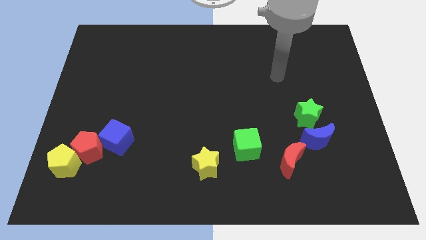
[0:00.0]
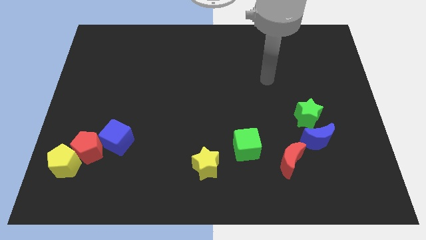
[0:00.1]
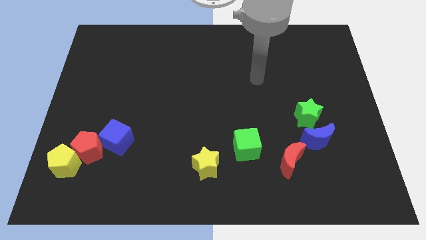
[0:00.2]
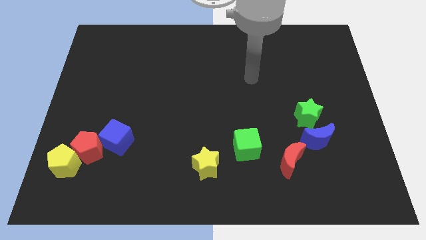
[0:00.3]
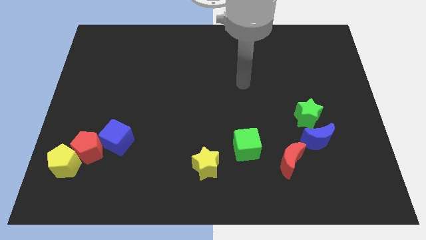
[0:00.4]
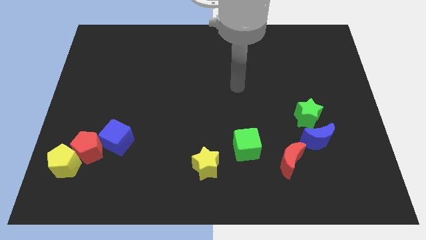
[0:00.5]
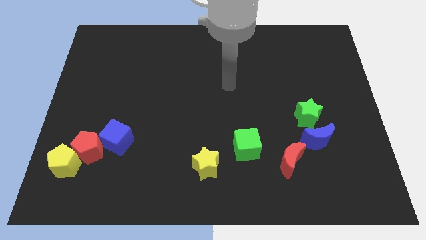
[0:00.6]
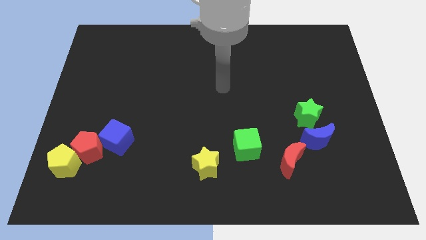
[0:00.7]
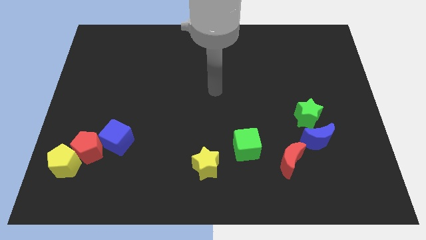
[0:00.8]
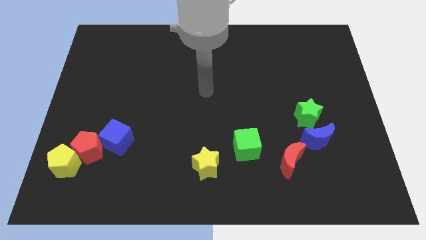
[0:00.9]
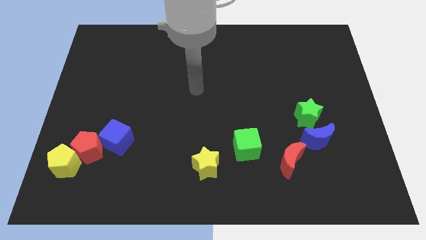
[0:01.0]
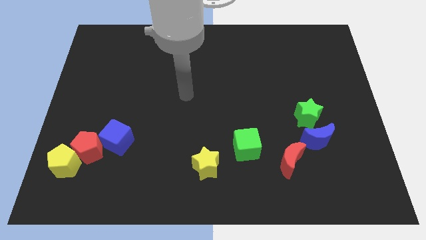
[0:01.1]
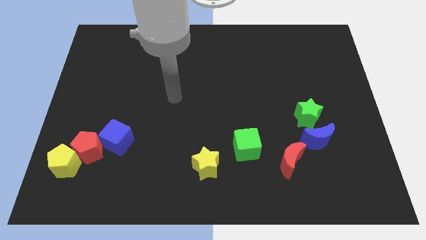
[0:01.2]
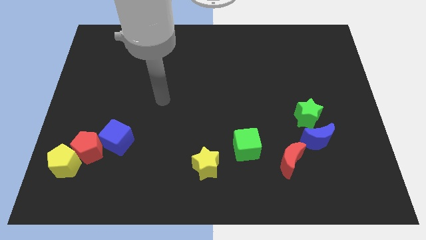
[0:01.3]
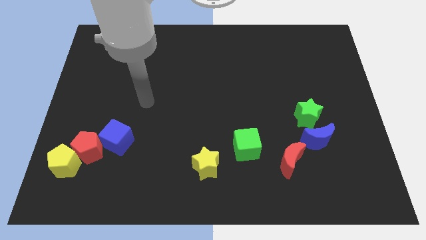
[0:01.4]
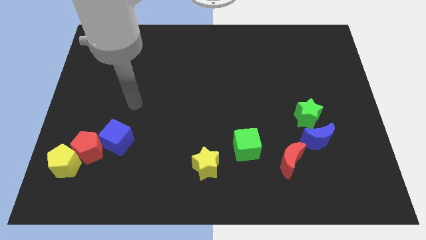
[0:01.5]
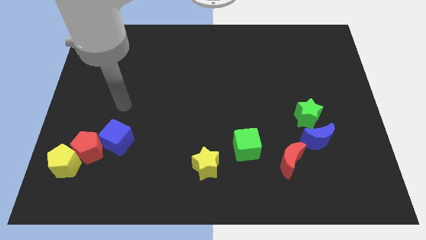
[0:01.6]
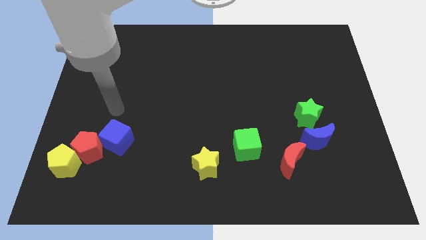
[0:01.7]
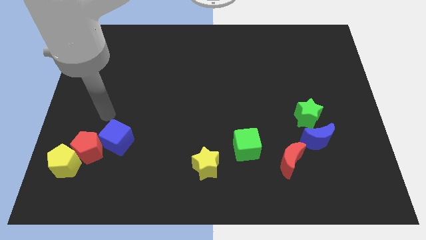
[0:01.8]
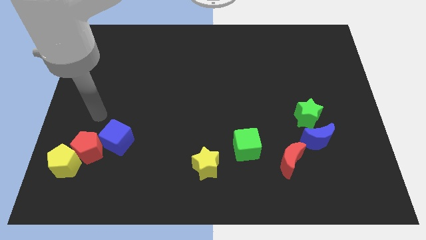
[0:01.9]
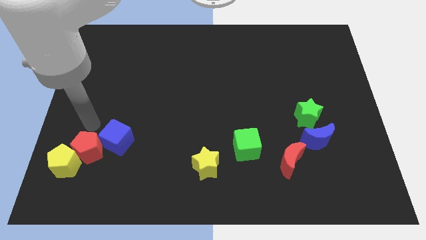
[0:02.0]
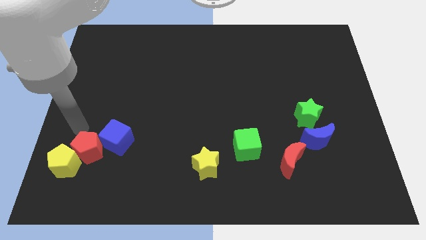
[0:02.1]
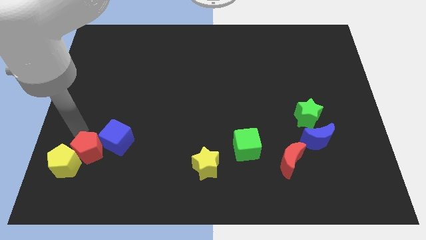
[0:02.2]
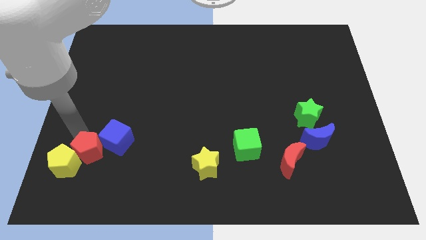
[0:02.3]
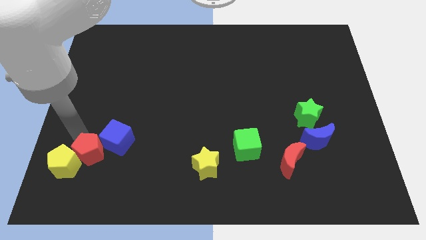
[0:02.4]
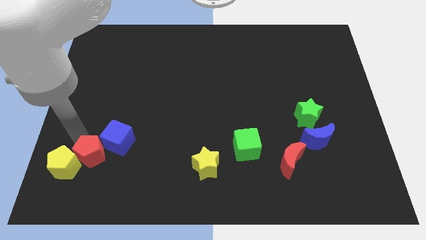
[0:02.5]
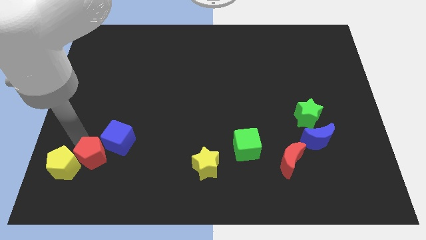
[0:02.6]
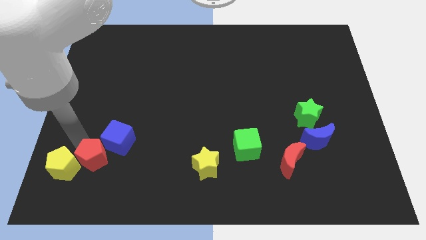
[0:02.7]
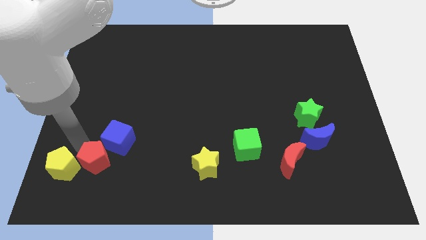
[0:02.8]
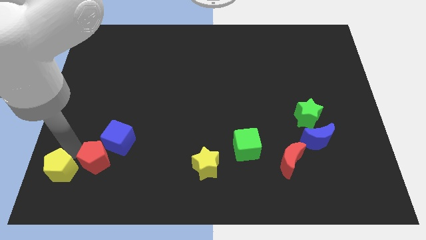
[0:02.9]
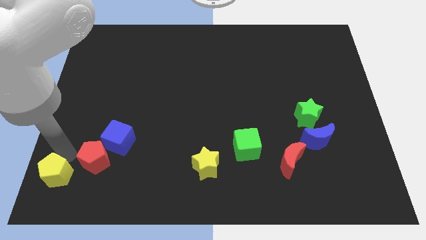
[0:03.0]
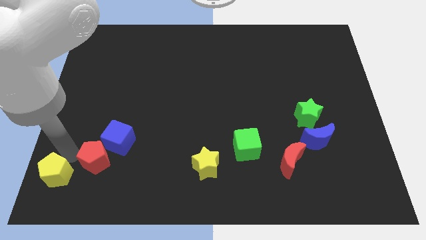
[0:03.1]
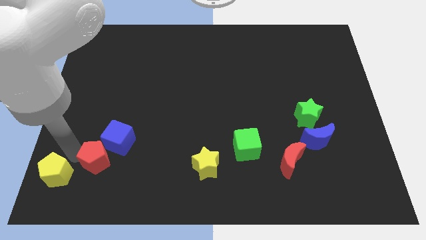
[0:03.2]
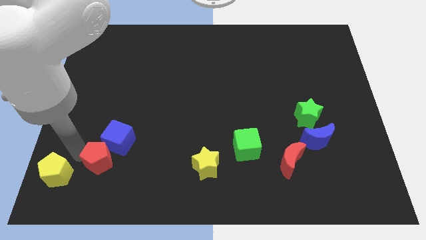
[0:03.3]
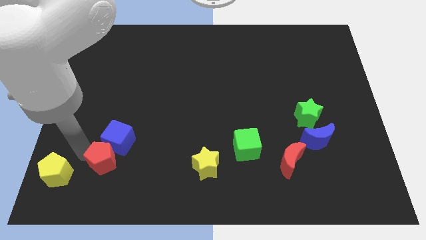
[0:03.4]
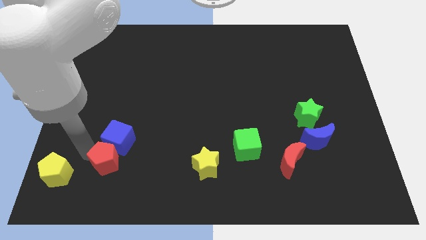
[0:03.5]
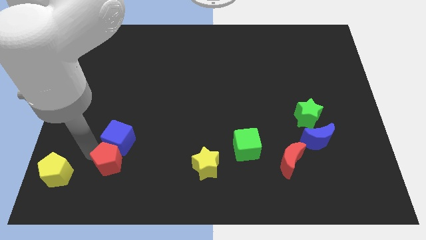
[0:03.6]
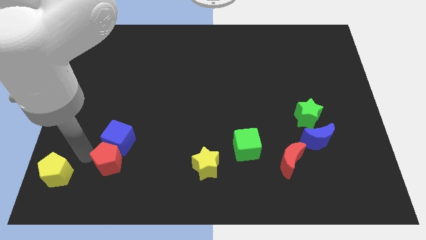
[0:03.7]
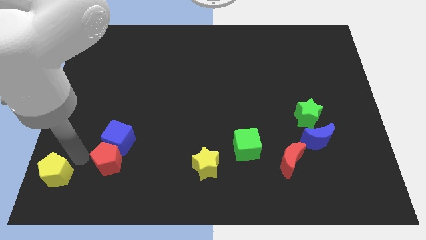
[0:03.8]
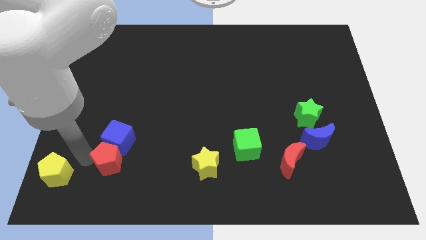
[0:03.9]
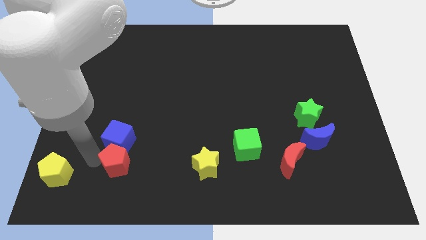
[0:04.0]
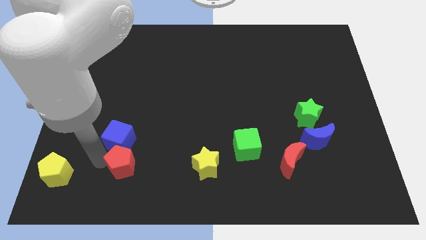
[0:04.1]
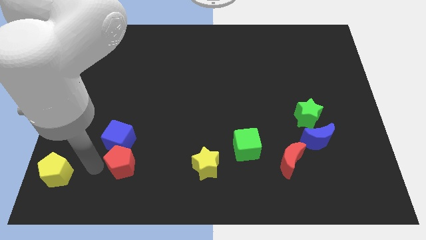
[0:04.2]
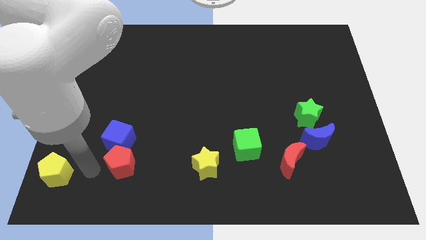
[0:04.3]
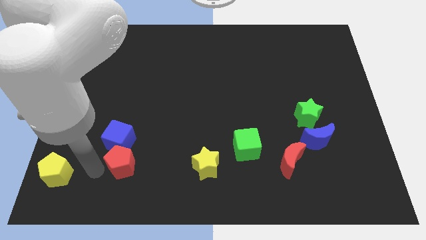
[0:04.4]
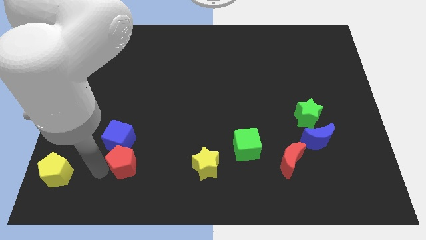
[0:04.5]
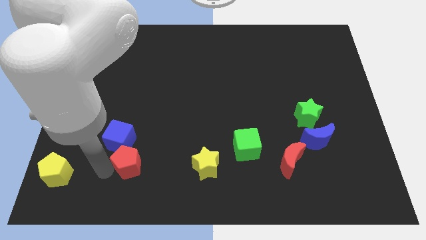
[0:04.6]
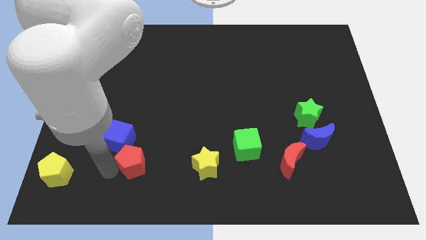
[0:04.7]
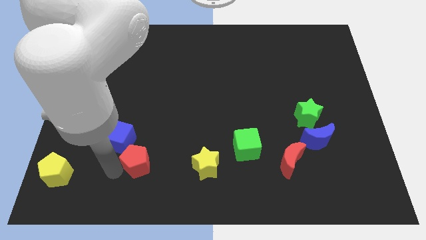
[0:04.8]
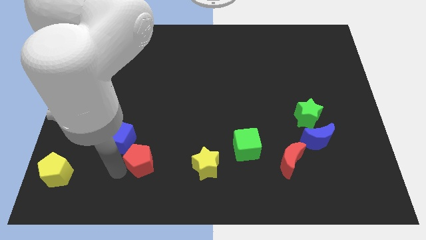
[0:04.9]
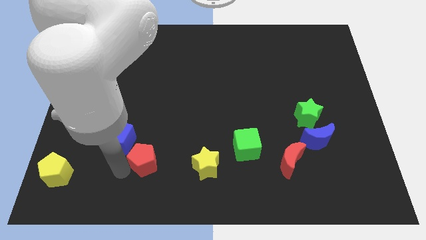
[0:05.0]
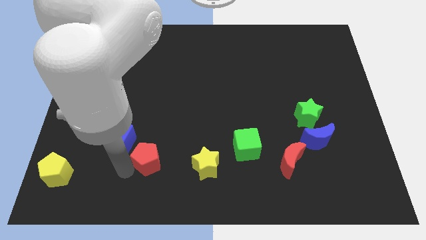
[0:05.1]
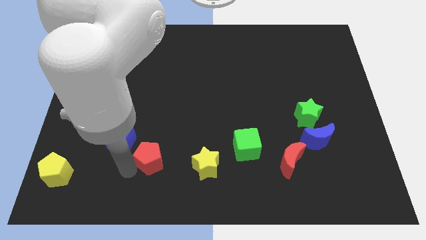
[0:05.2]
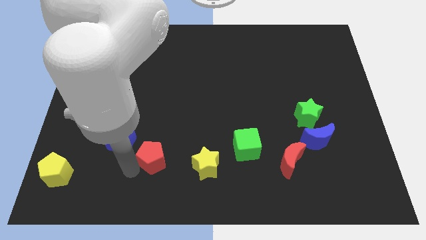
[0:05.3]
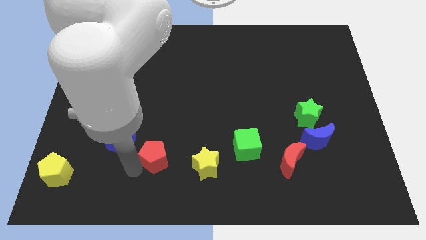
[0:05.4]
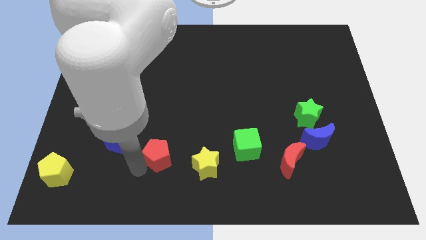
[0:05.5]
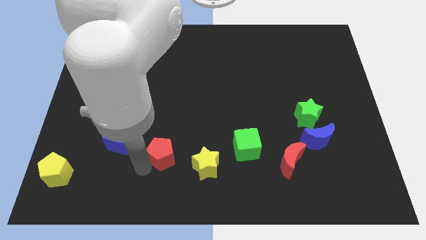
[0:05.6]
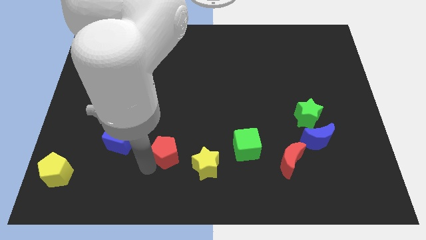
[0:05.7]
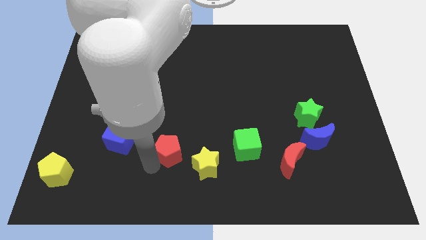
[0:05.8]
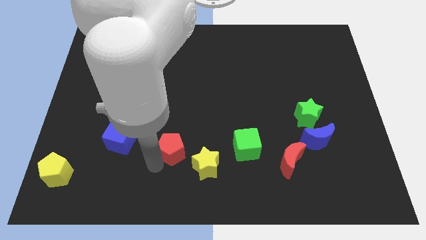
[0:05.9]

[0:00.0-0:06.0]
move the red pentagon to the left of the green cube
